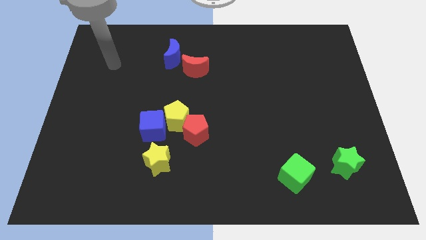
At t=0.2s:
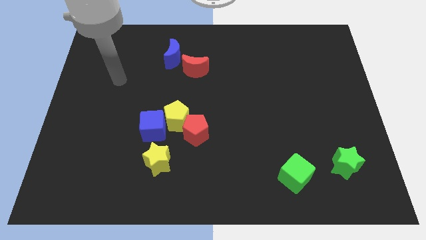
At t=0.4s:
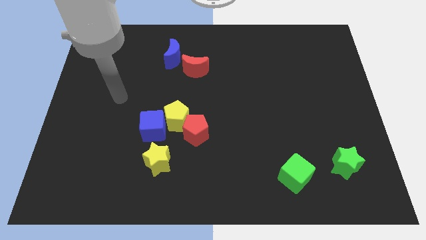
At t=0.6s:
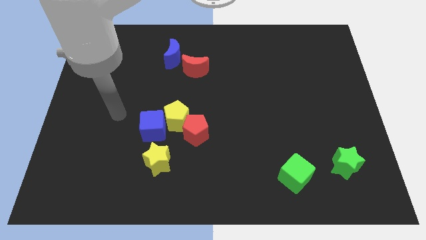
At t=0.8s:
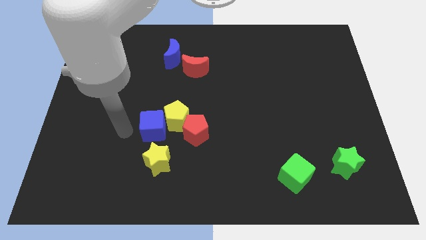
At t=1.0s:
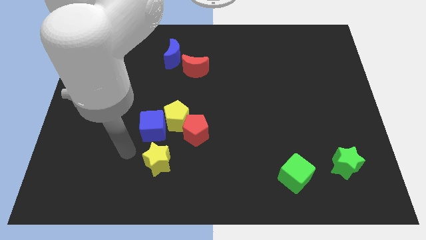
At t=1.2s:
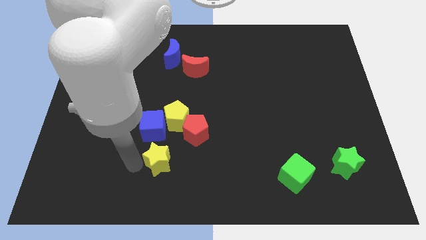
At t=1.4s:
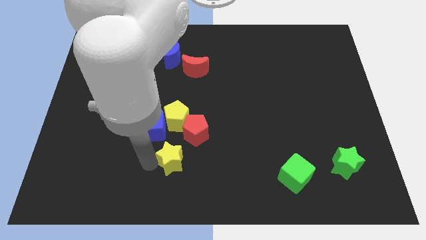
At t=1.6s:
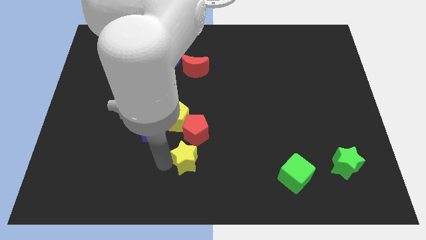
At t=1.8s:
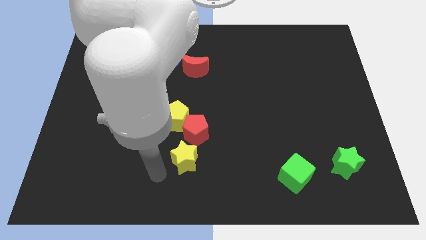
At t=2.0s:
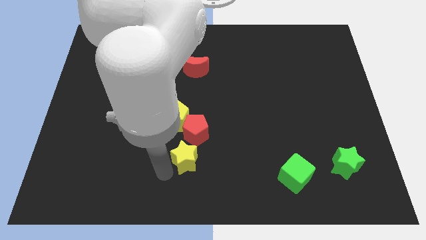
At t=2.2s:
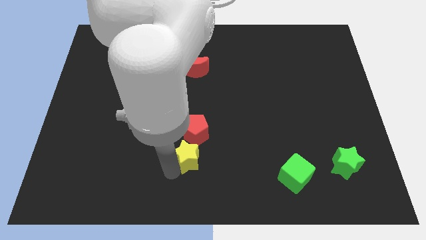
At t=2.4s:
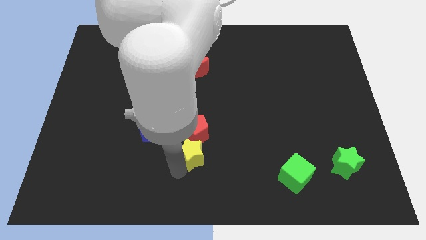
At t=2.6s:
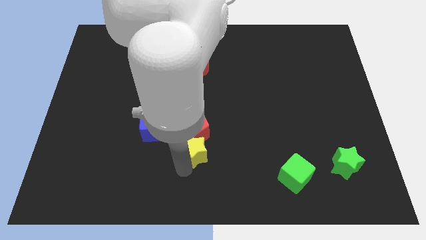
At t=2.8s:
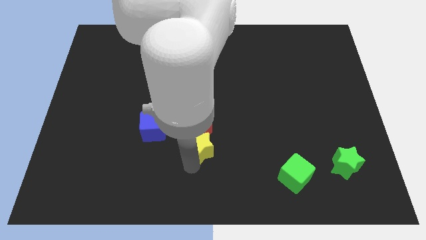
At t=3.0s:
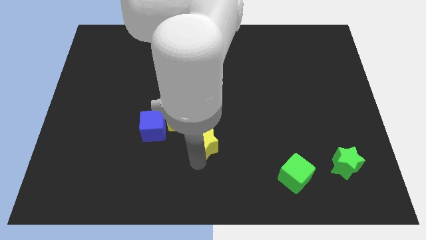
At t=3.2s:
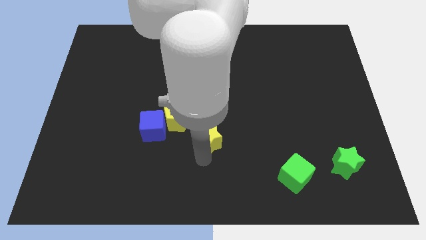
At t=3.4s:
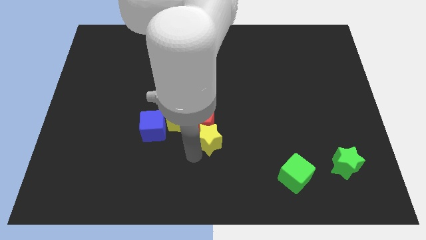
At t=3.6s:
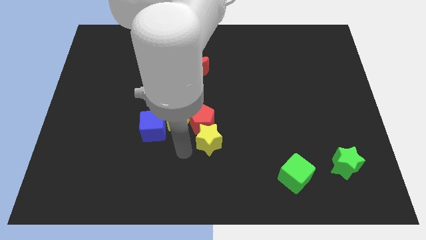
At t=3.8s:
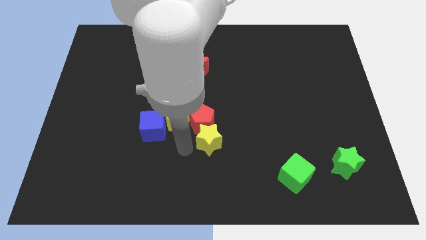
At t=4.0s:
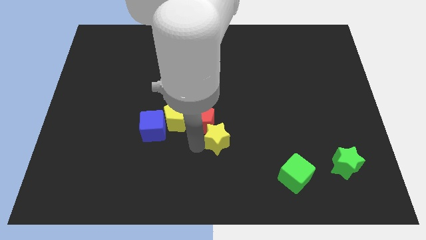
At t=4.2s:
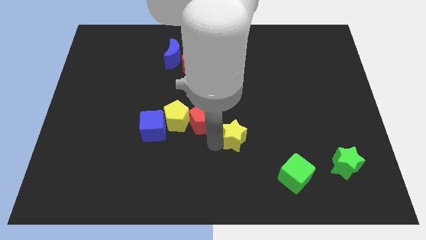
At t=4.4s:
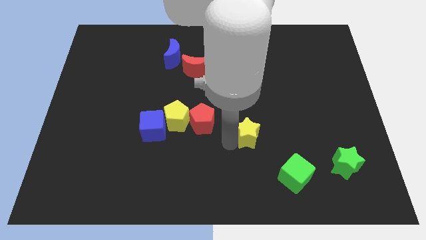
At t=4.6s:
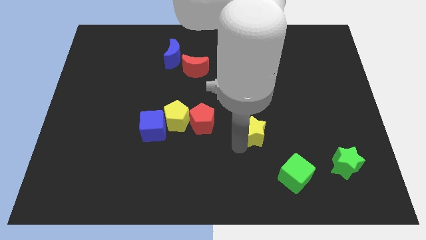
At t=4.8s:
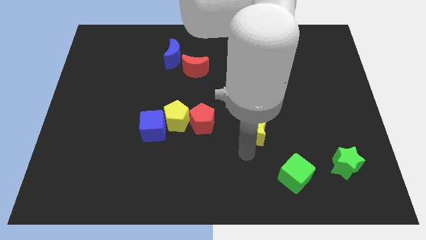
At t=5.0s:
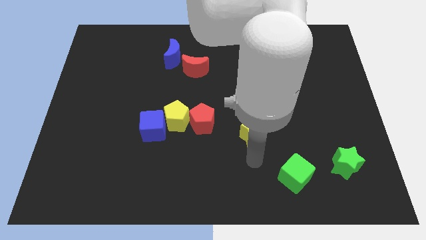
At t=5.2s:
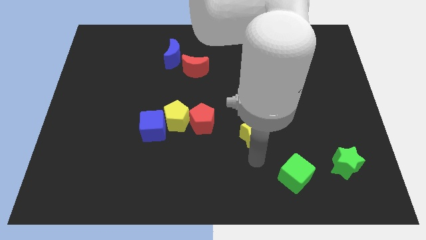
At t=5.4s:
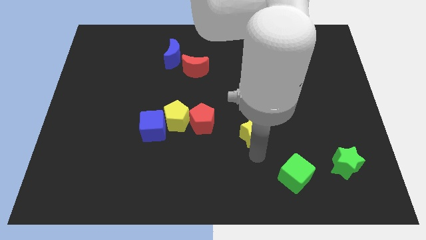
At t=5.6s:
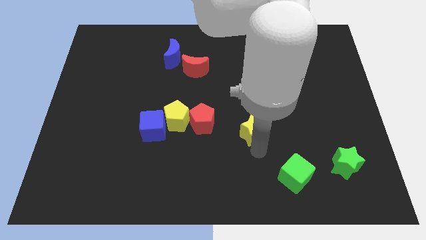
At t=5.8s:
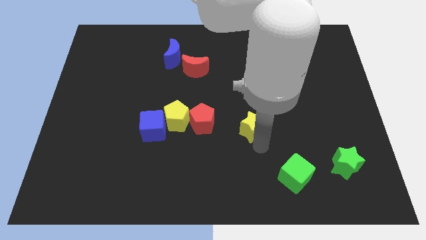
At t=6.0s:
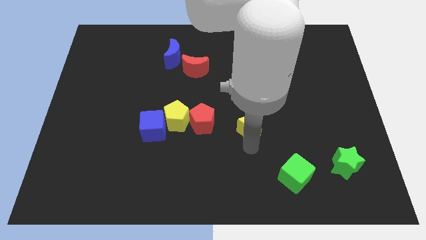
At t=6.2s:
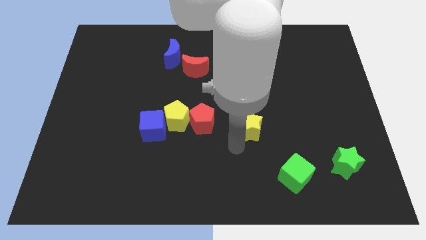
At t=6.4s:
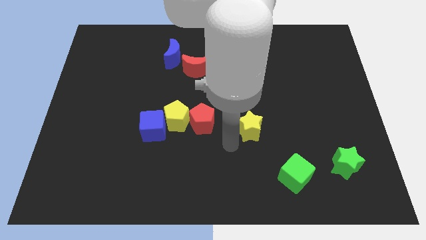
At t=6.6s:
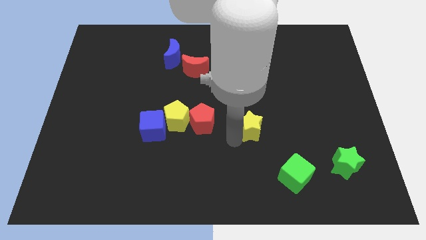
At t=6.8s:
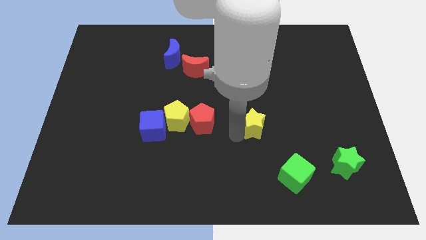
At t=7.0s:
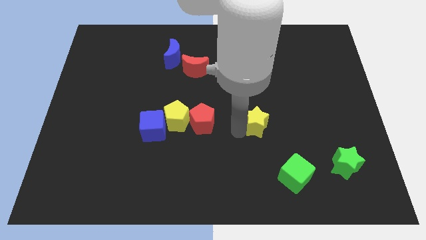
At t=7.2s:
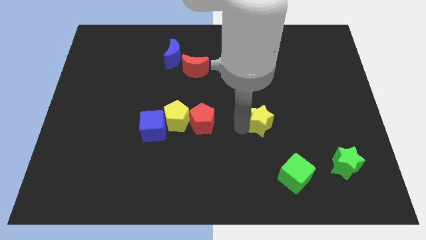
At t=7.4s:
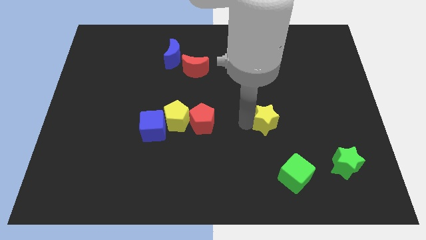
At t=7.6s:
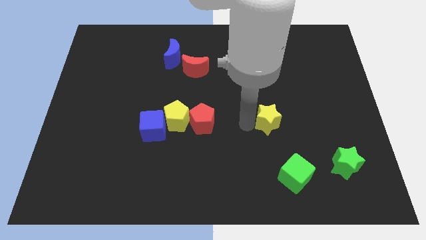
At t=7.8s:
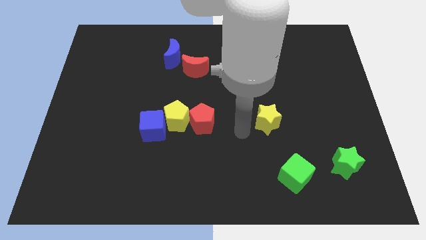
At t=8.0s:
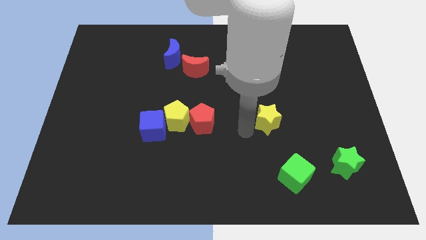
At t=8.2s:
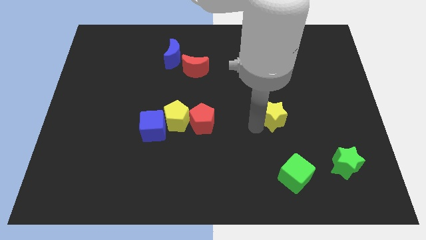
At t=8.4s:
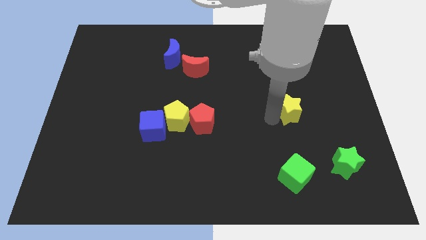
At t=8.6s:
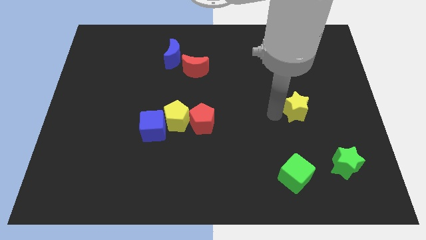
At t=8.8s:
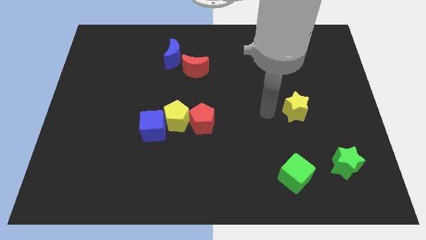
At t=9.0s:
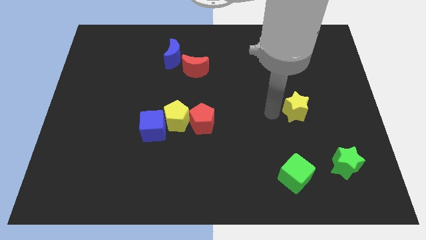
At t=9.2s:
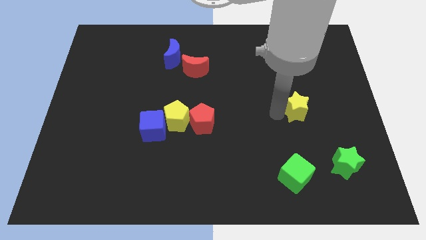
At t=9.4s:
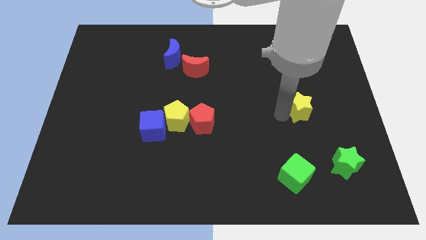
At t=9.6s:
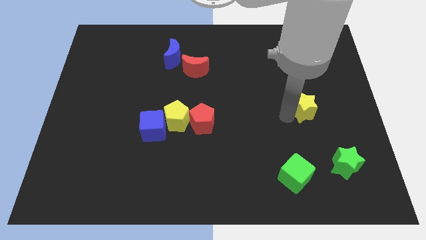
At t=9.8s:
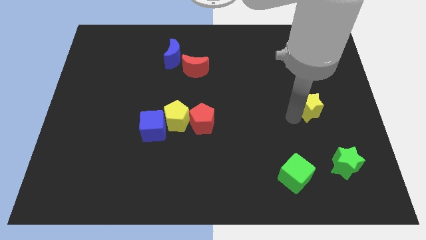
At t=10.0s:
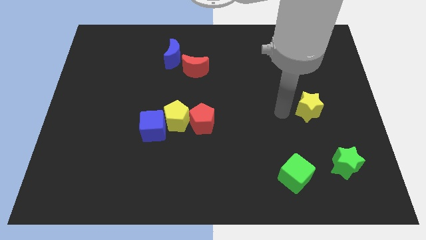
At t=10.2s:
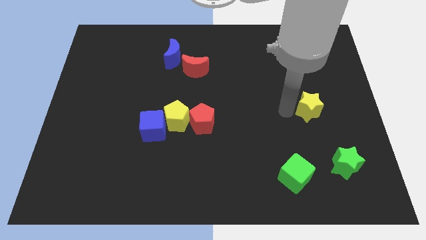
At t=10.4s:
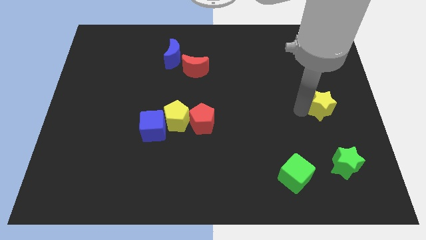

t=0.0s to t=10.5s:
push the yellow star to the center right
